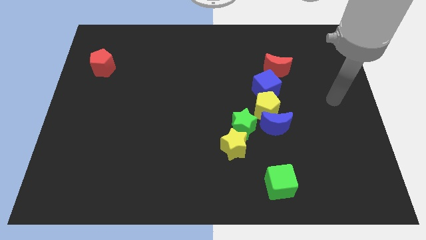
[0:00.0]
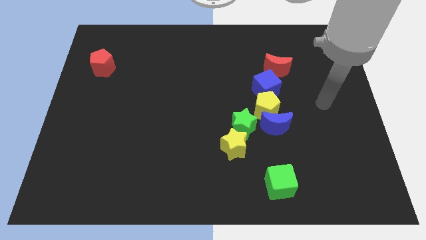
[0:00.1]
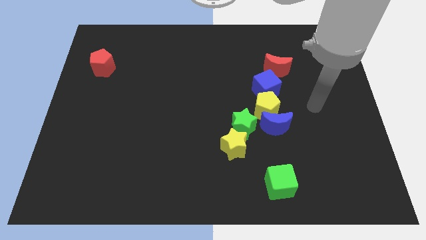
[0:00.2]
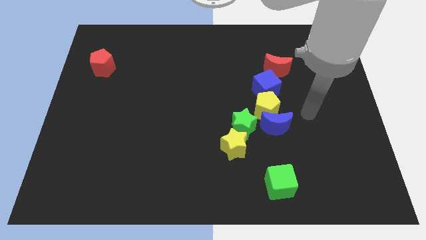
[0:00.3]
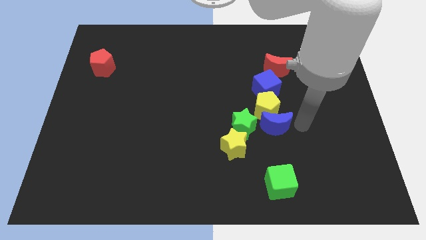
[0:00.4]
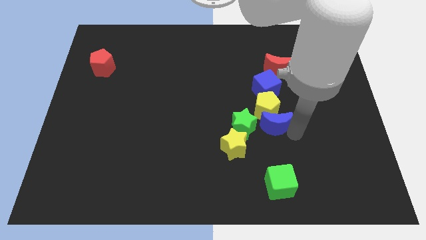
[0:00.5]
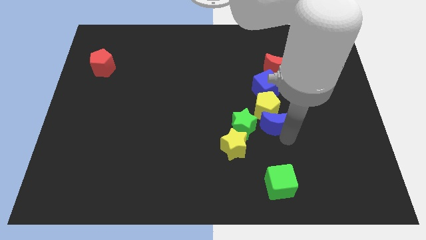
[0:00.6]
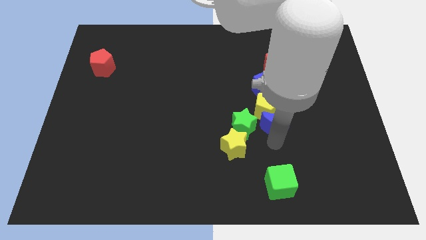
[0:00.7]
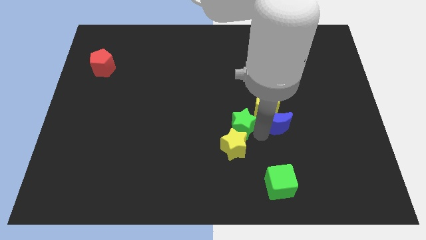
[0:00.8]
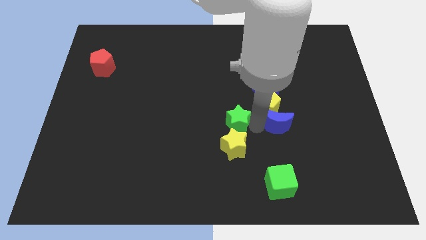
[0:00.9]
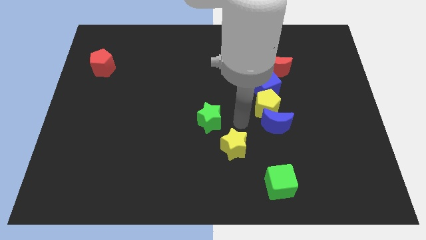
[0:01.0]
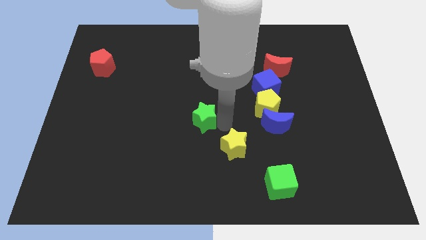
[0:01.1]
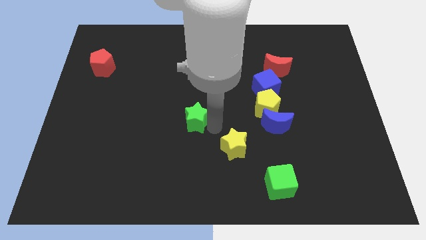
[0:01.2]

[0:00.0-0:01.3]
pull the yellow star apart from the green star

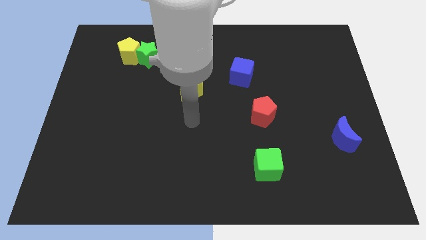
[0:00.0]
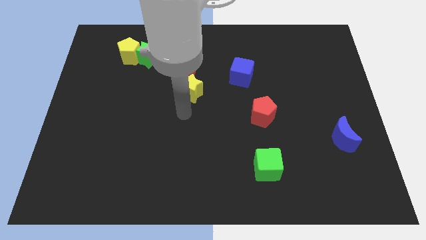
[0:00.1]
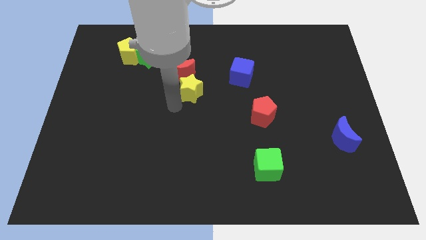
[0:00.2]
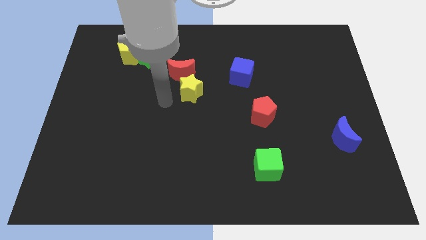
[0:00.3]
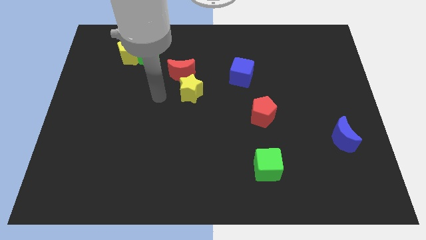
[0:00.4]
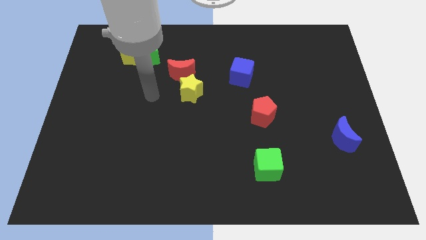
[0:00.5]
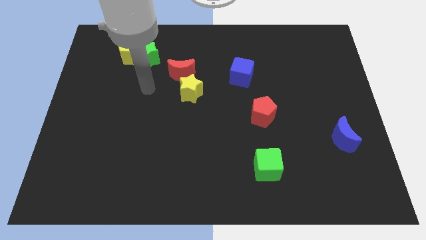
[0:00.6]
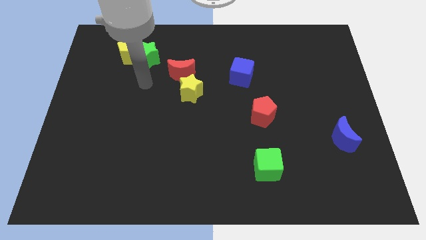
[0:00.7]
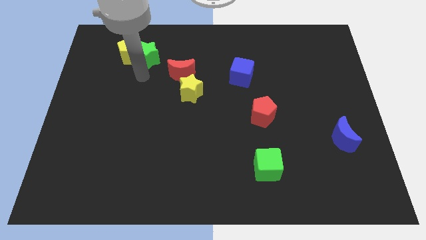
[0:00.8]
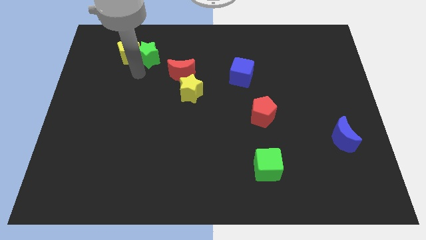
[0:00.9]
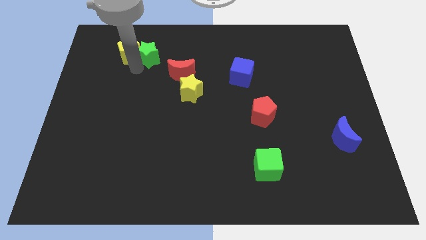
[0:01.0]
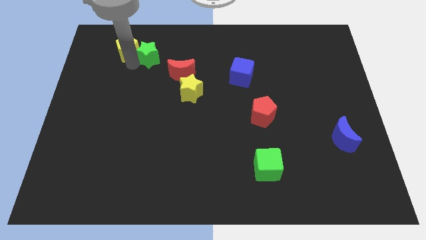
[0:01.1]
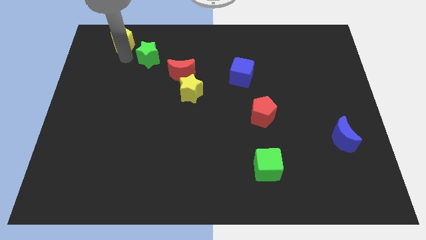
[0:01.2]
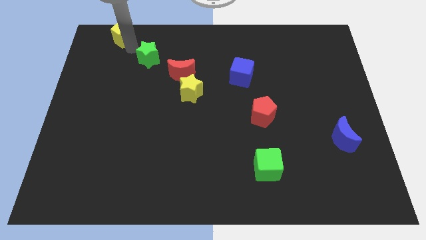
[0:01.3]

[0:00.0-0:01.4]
pull the green star apart from the yellow pentagon

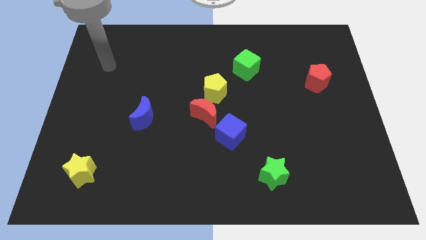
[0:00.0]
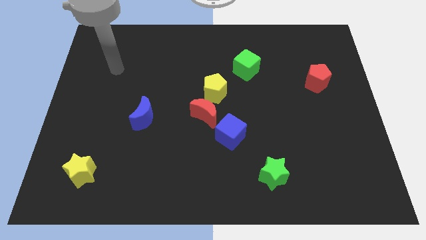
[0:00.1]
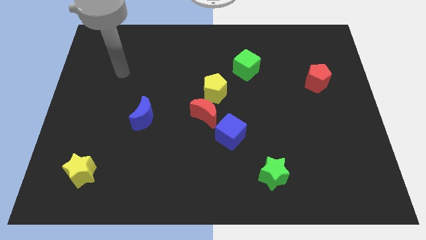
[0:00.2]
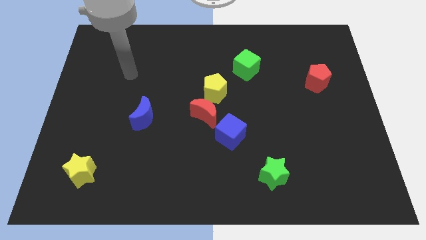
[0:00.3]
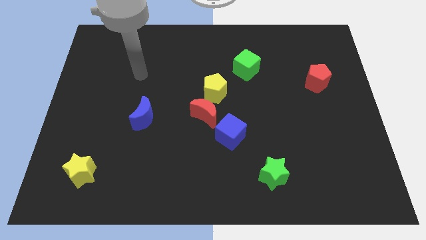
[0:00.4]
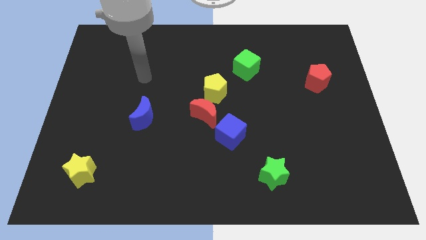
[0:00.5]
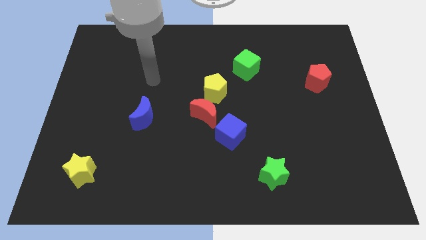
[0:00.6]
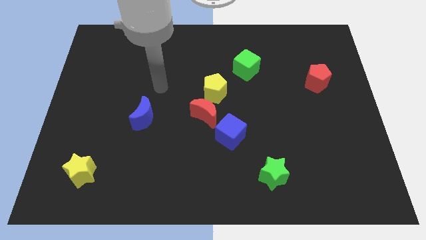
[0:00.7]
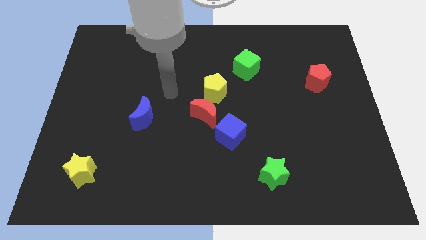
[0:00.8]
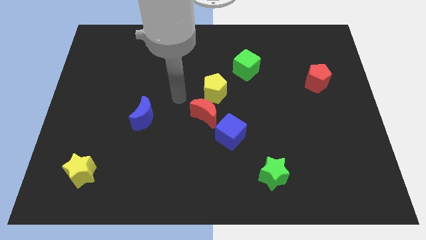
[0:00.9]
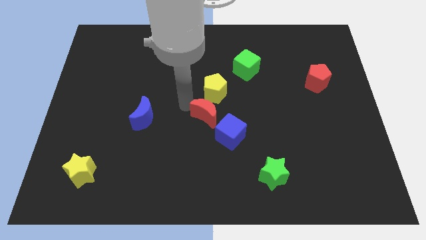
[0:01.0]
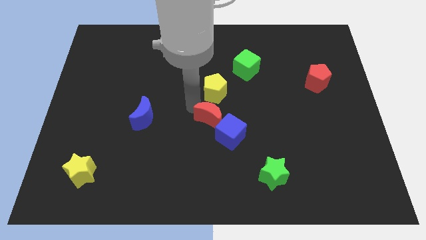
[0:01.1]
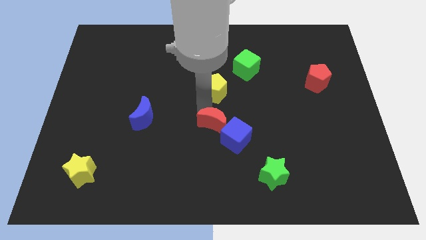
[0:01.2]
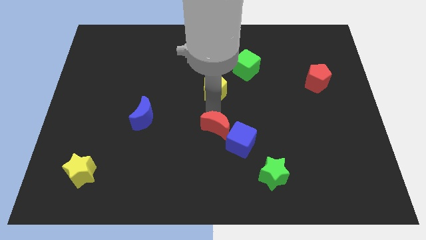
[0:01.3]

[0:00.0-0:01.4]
pull the yellow pentagon apart from the red moon

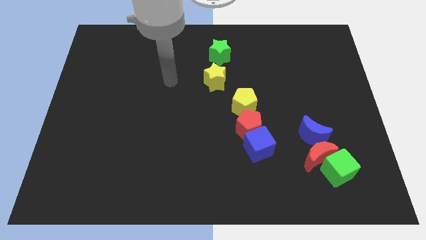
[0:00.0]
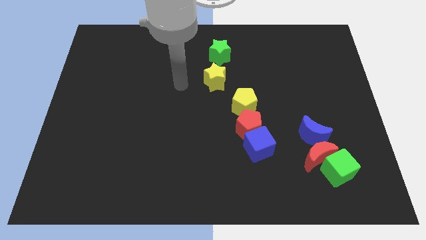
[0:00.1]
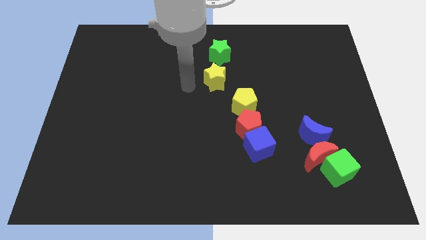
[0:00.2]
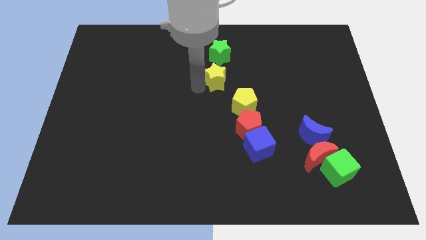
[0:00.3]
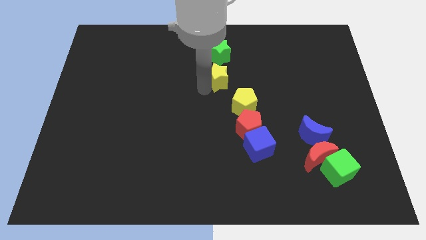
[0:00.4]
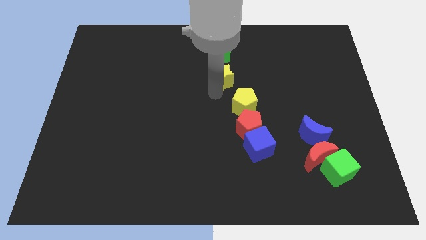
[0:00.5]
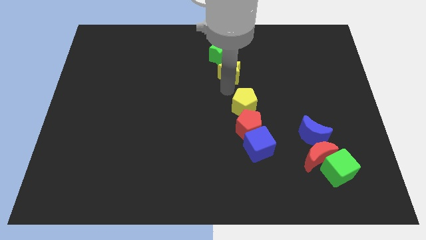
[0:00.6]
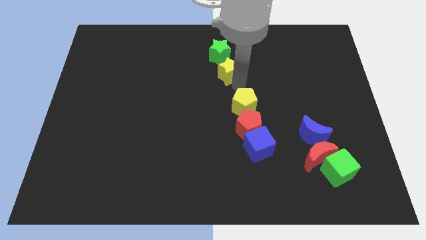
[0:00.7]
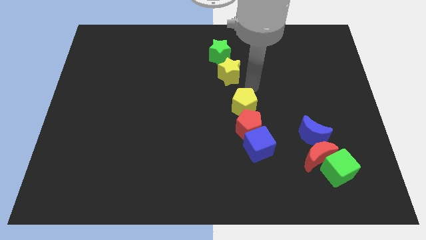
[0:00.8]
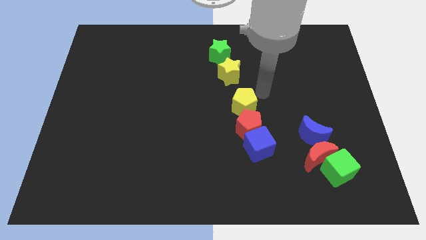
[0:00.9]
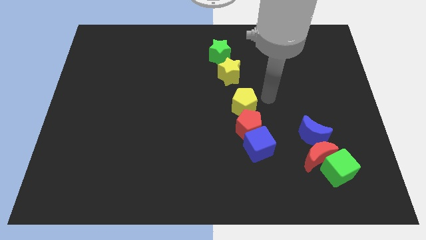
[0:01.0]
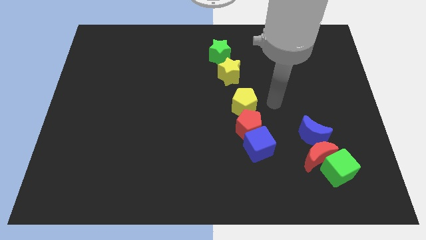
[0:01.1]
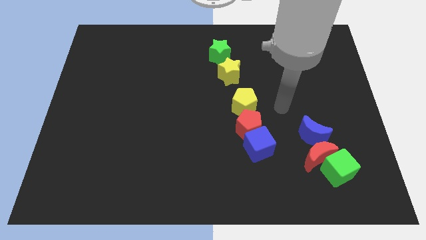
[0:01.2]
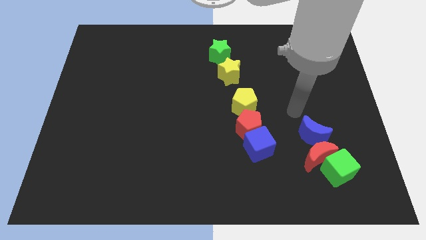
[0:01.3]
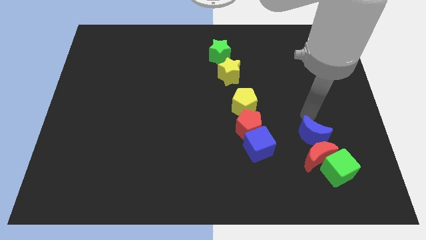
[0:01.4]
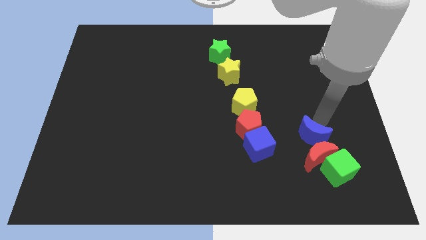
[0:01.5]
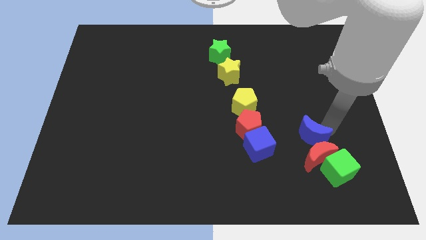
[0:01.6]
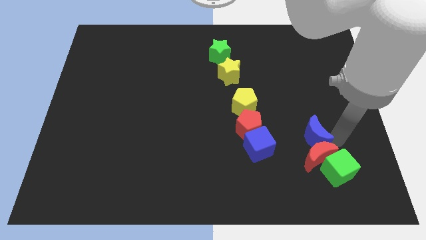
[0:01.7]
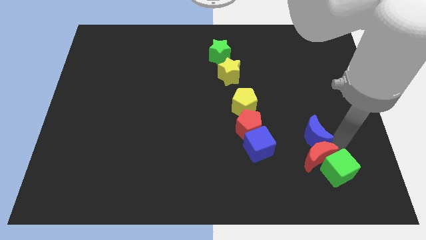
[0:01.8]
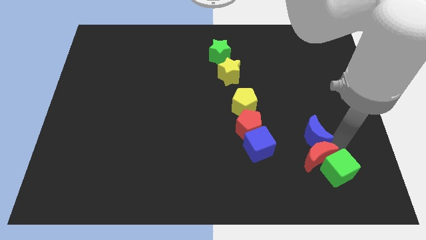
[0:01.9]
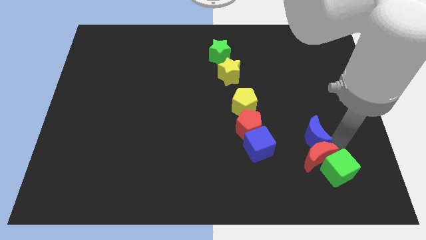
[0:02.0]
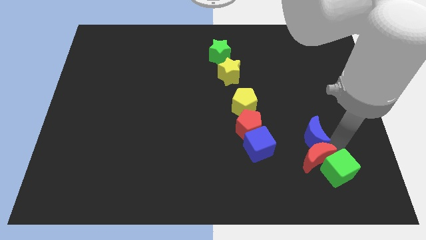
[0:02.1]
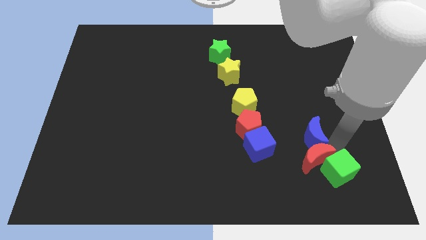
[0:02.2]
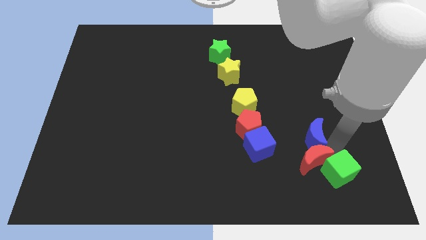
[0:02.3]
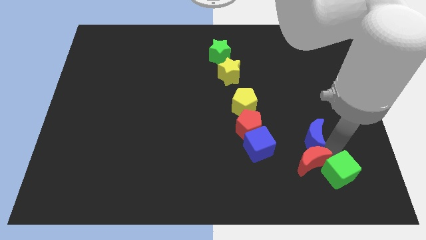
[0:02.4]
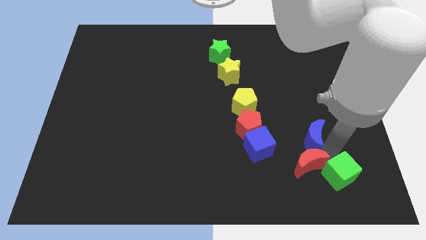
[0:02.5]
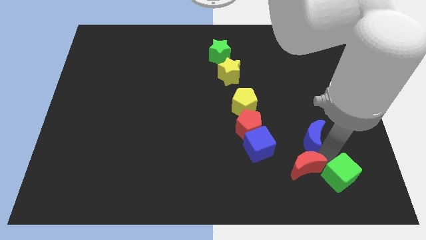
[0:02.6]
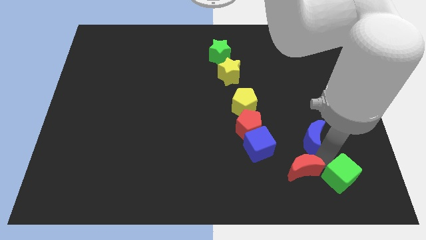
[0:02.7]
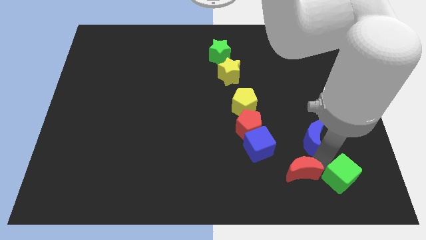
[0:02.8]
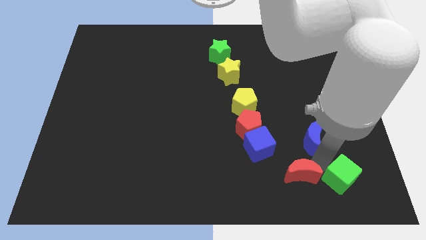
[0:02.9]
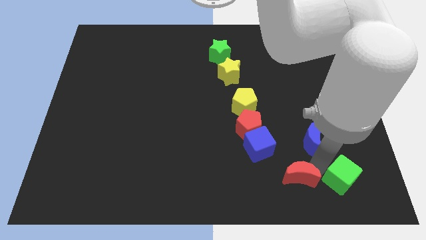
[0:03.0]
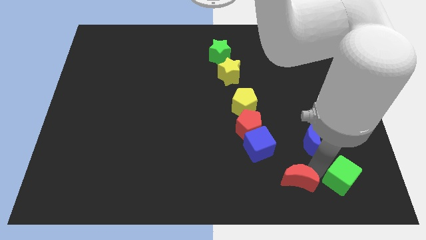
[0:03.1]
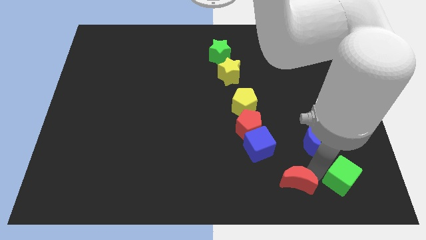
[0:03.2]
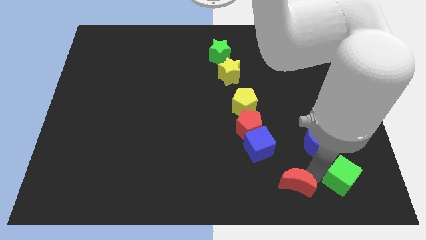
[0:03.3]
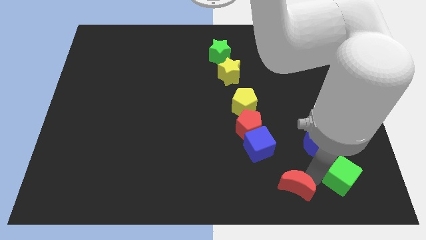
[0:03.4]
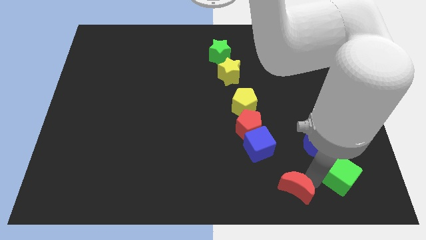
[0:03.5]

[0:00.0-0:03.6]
separate the red moon from the green cube and blue moon

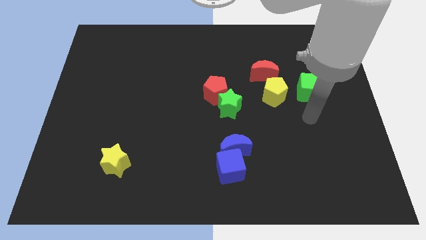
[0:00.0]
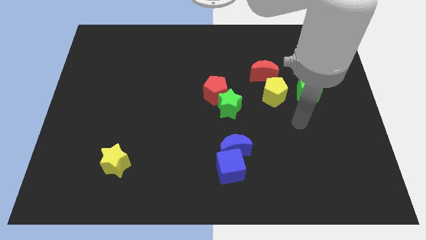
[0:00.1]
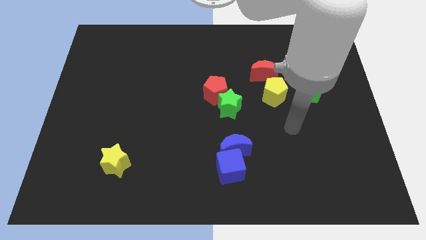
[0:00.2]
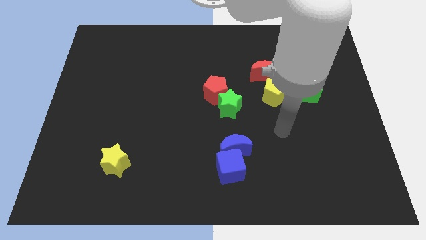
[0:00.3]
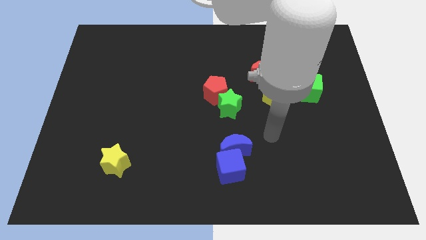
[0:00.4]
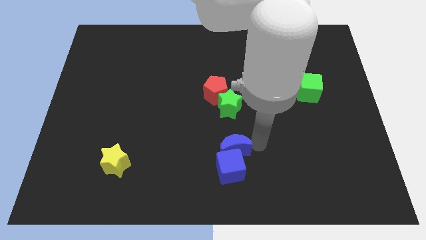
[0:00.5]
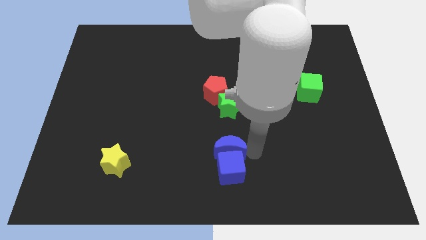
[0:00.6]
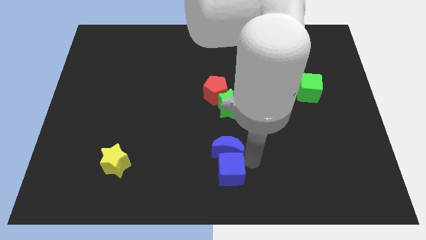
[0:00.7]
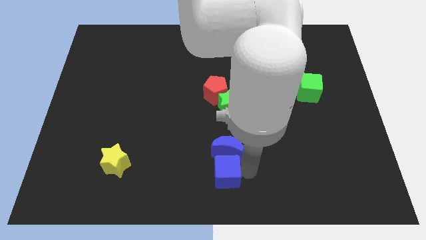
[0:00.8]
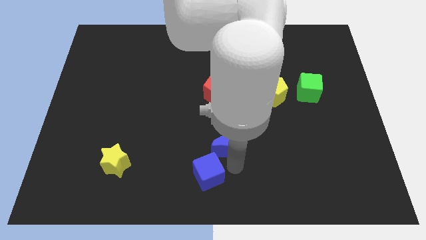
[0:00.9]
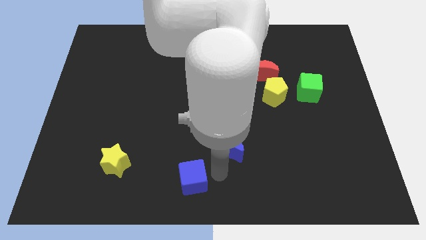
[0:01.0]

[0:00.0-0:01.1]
move the blue moon away from the blue cube

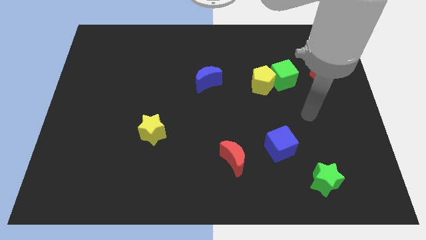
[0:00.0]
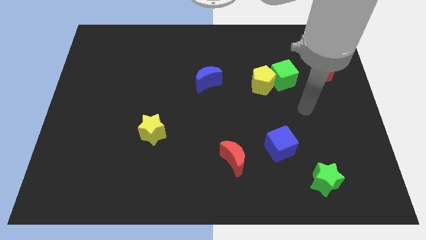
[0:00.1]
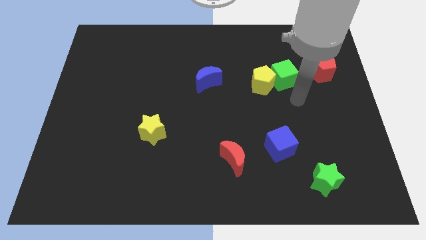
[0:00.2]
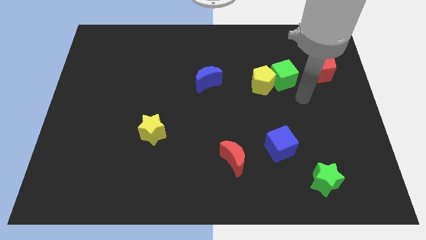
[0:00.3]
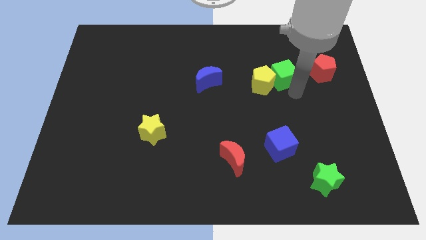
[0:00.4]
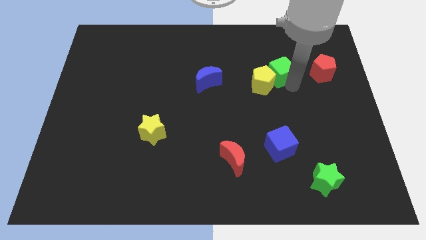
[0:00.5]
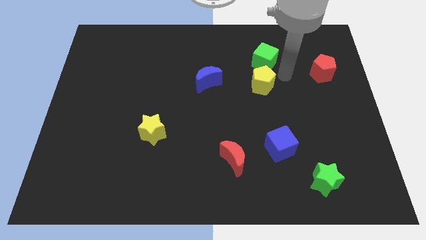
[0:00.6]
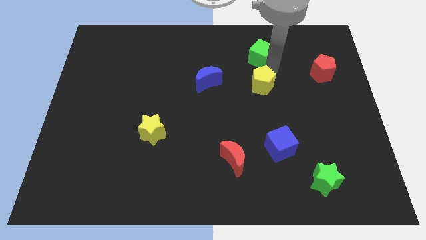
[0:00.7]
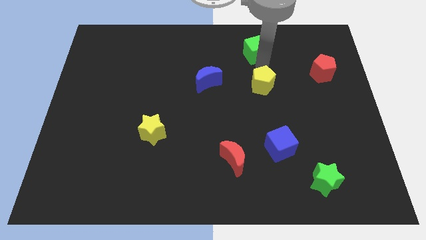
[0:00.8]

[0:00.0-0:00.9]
move the yellow pentagon away from the green cube
